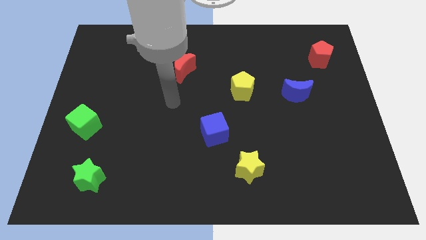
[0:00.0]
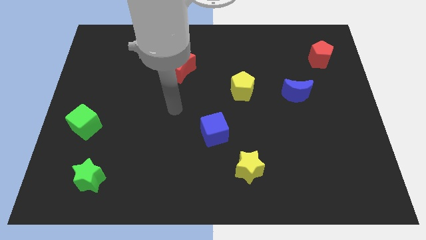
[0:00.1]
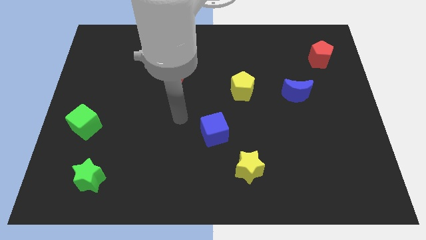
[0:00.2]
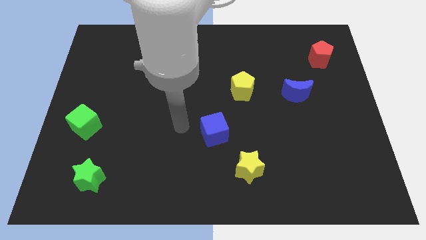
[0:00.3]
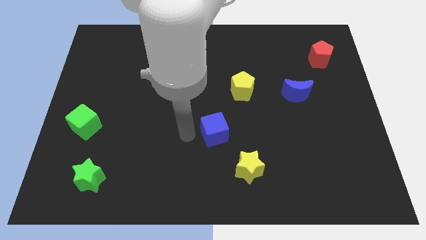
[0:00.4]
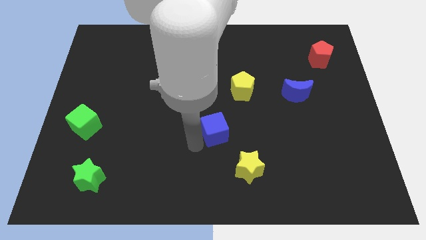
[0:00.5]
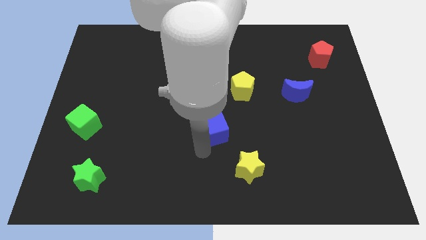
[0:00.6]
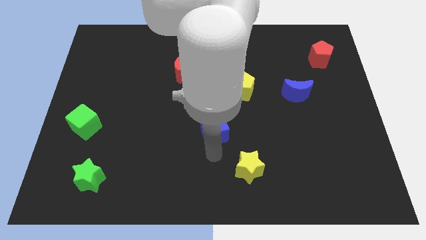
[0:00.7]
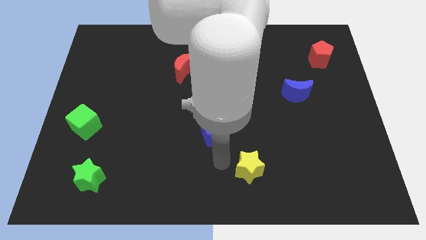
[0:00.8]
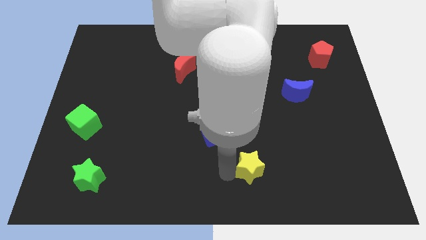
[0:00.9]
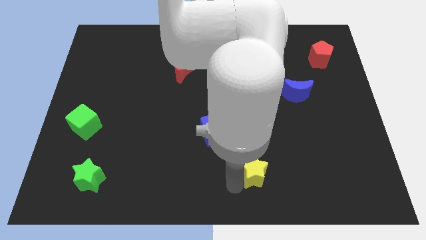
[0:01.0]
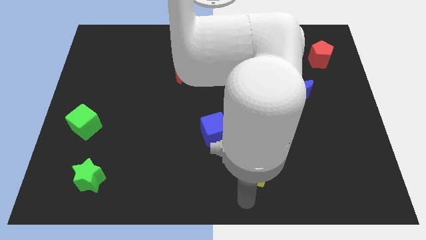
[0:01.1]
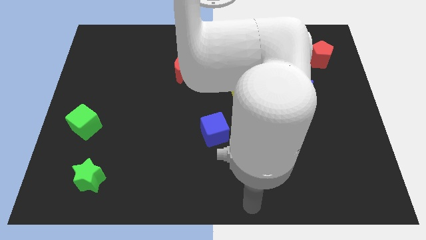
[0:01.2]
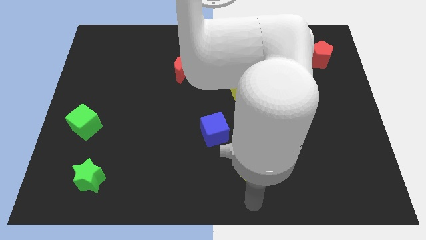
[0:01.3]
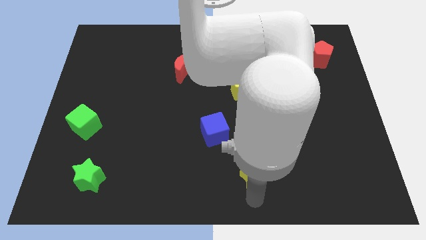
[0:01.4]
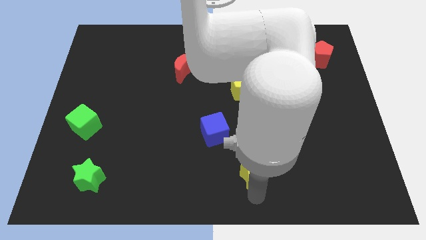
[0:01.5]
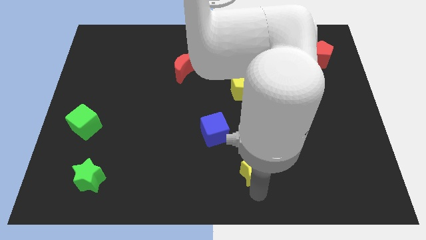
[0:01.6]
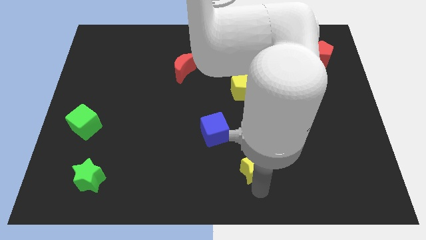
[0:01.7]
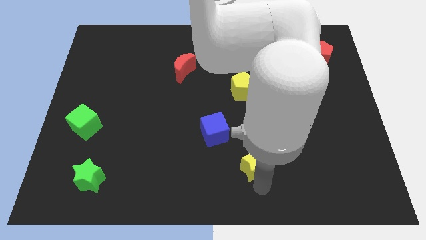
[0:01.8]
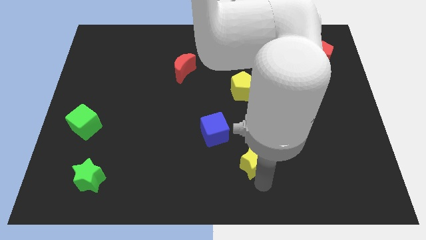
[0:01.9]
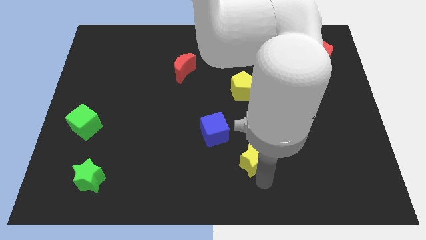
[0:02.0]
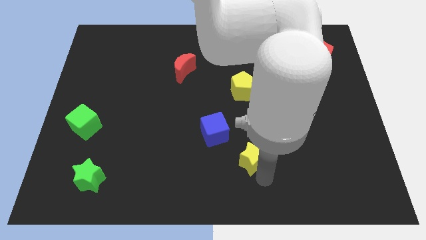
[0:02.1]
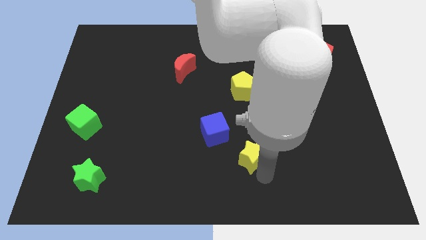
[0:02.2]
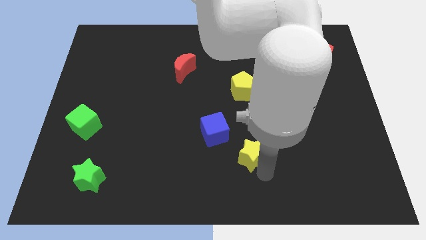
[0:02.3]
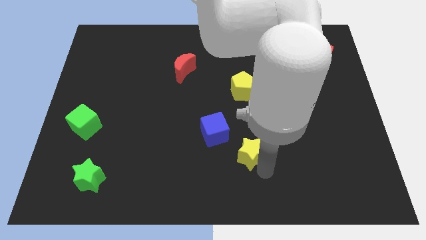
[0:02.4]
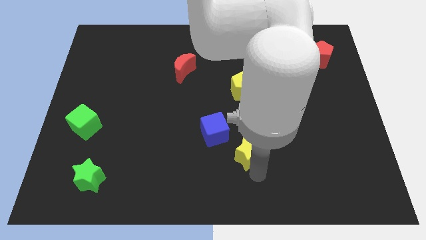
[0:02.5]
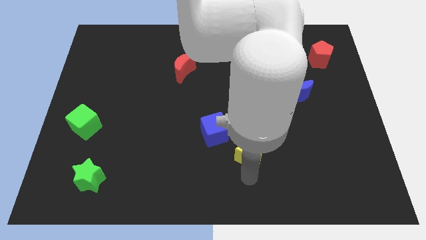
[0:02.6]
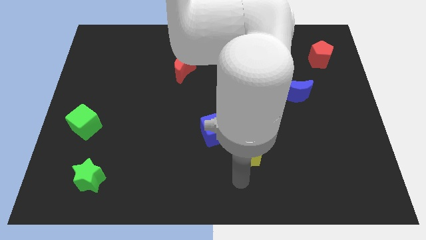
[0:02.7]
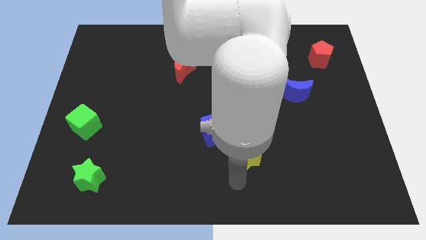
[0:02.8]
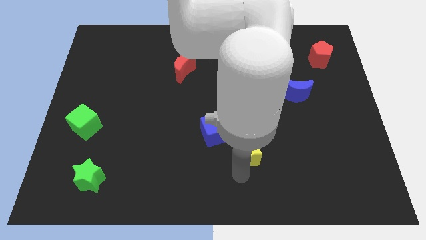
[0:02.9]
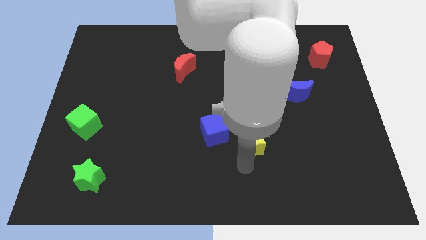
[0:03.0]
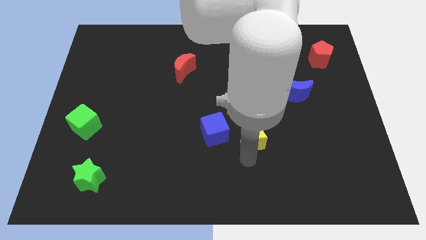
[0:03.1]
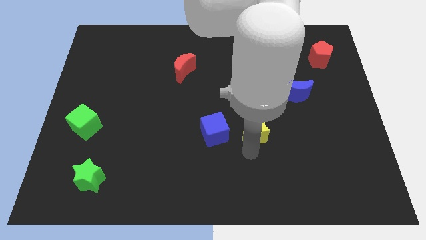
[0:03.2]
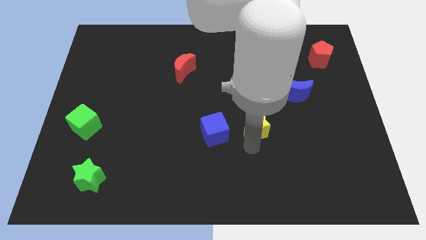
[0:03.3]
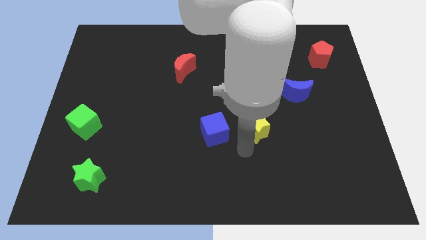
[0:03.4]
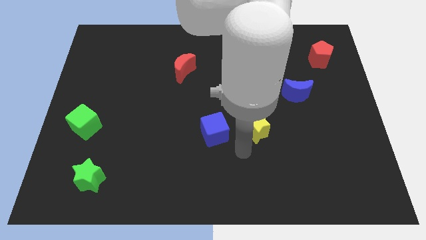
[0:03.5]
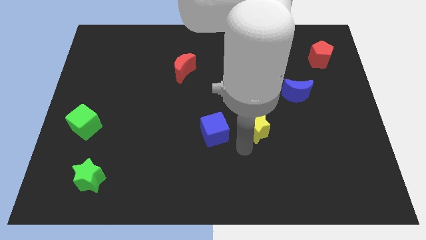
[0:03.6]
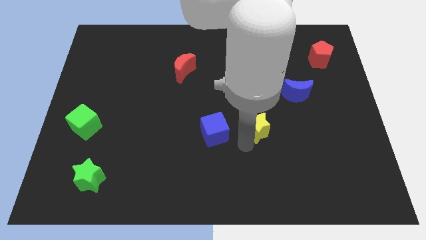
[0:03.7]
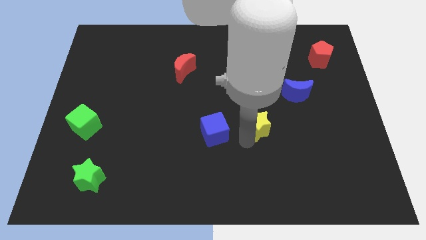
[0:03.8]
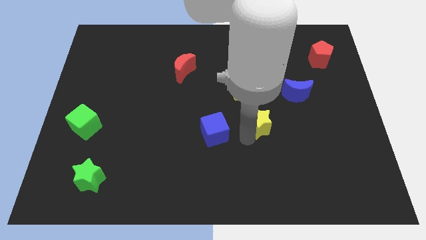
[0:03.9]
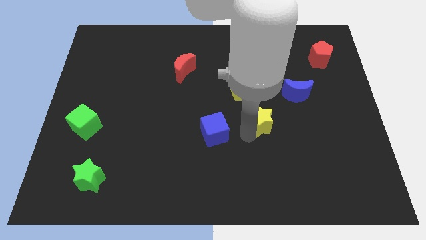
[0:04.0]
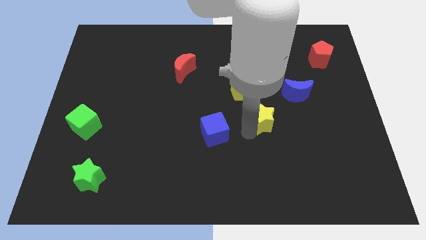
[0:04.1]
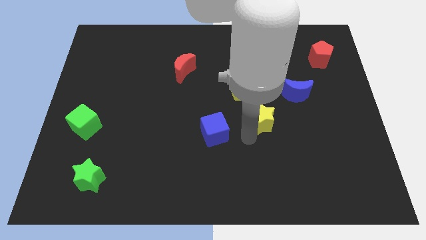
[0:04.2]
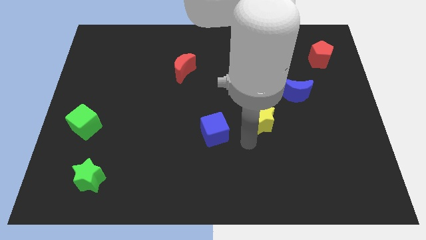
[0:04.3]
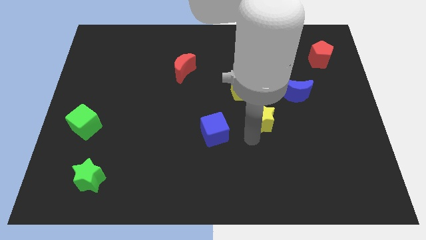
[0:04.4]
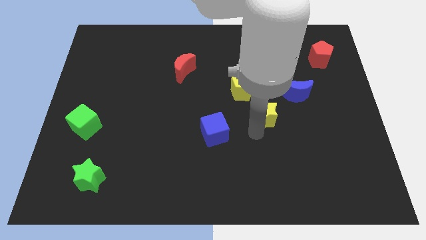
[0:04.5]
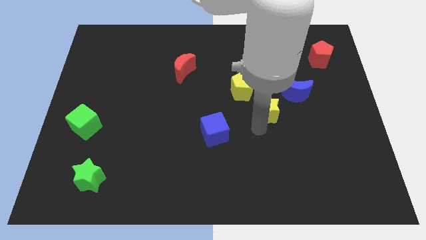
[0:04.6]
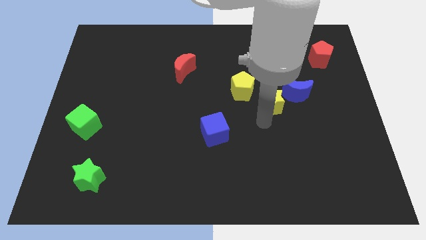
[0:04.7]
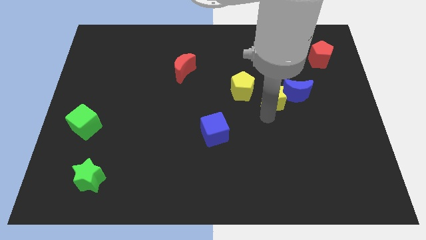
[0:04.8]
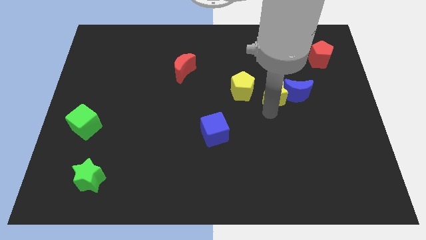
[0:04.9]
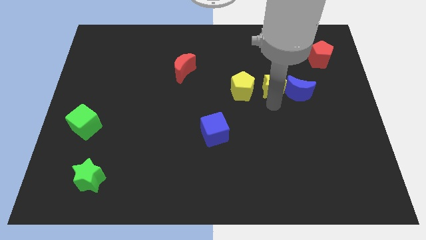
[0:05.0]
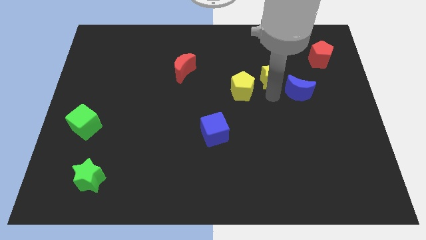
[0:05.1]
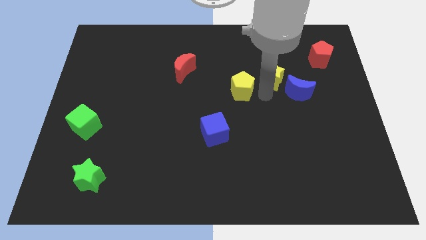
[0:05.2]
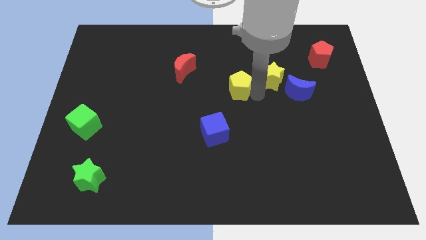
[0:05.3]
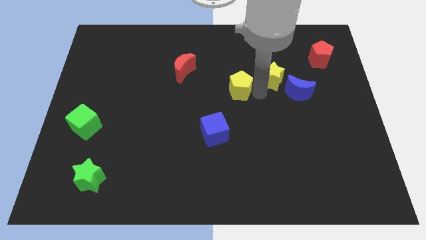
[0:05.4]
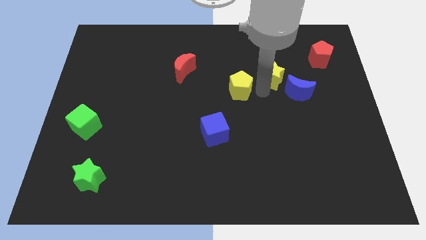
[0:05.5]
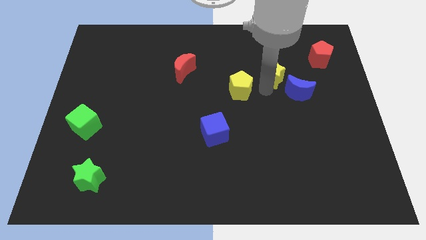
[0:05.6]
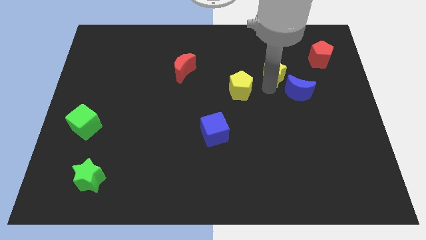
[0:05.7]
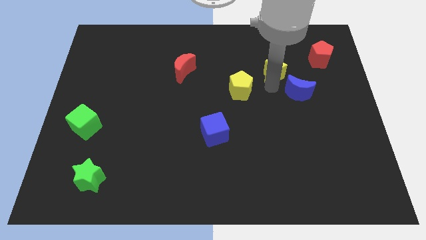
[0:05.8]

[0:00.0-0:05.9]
push the yellow star to the top side of the blue moon

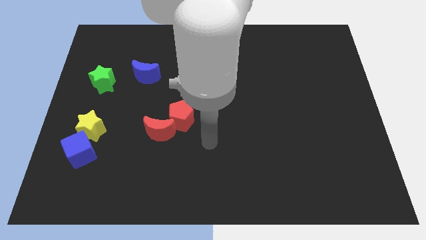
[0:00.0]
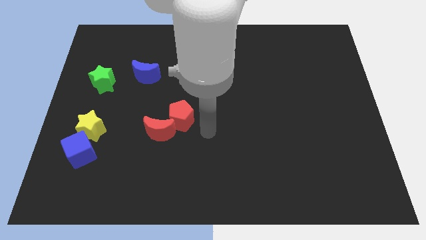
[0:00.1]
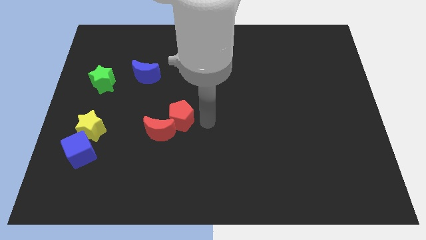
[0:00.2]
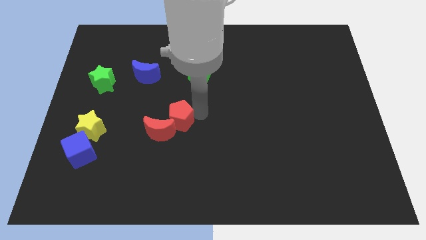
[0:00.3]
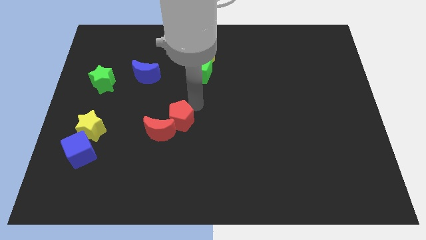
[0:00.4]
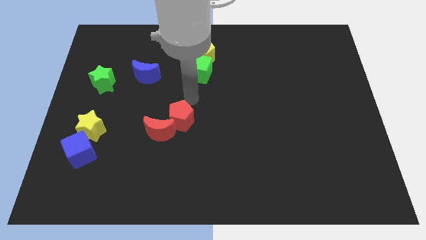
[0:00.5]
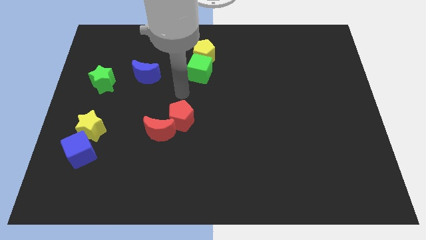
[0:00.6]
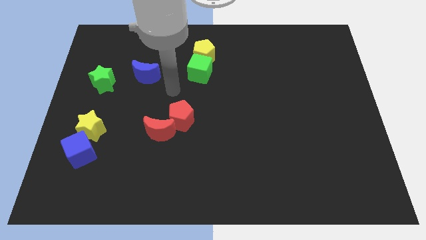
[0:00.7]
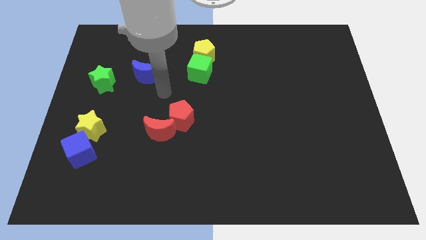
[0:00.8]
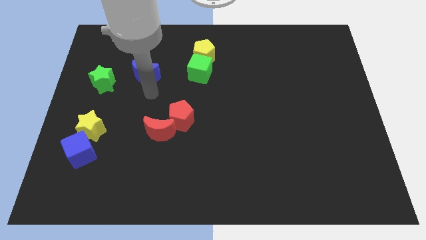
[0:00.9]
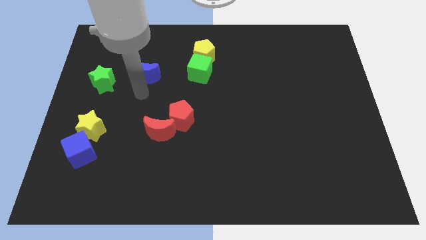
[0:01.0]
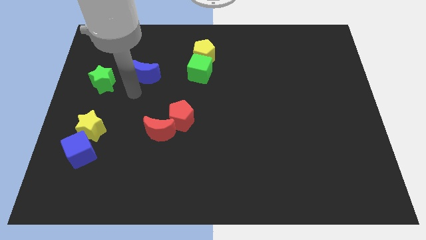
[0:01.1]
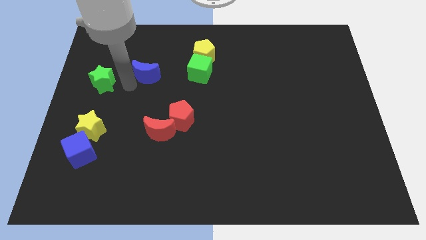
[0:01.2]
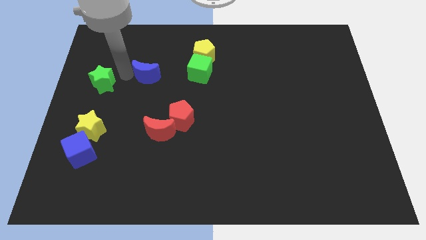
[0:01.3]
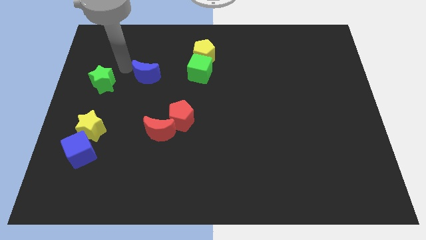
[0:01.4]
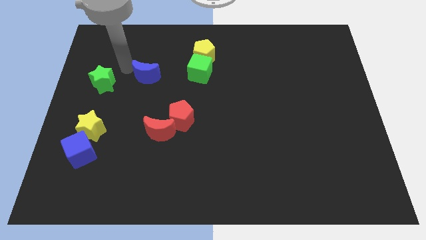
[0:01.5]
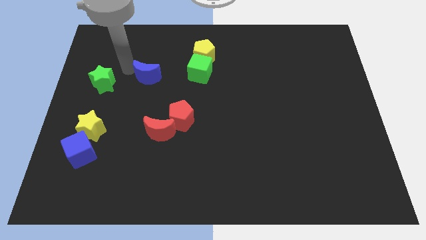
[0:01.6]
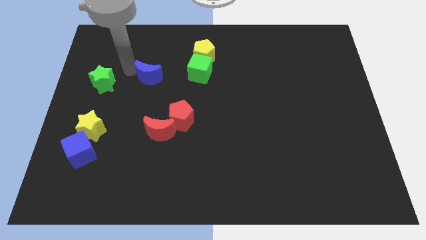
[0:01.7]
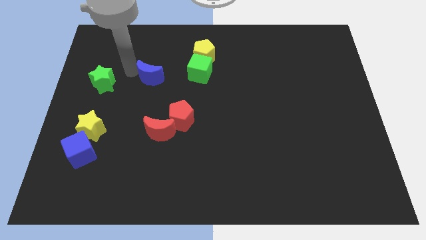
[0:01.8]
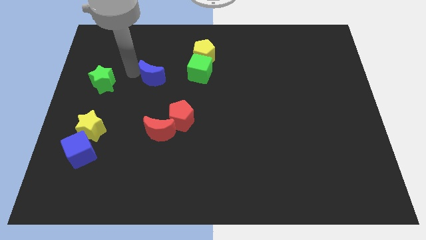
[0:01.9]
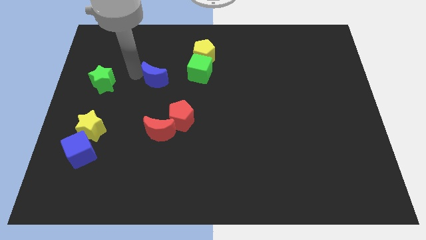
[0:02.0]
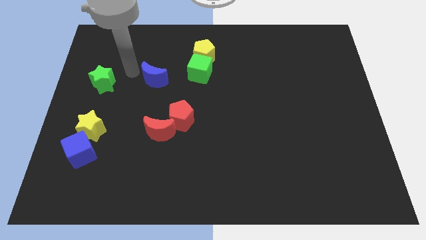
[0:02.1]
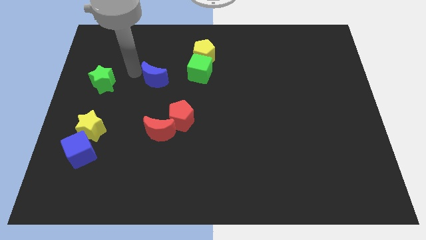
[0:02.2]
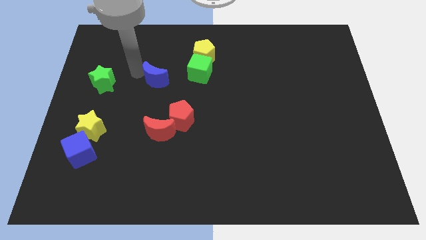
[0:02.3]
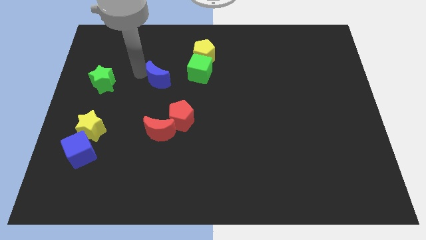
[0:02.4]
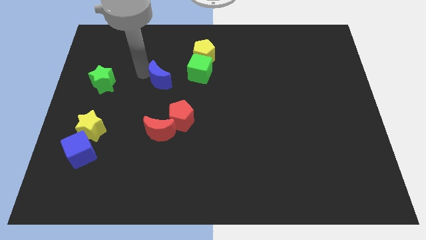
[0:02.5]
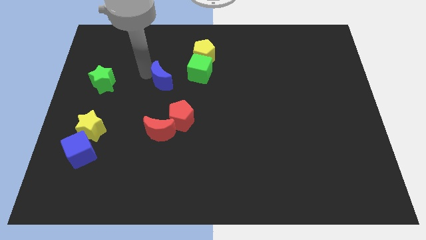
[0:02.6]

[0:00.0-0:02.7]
slide the blue moon to the bottom left side of the green cube
